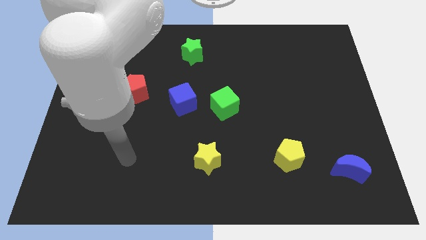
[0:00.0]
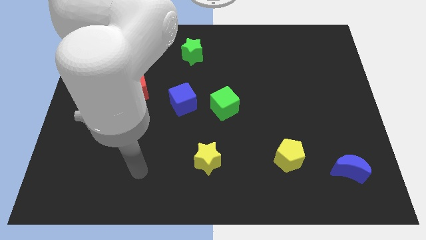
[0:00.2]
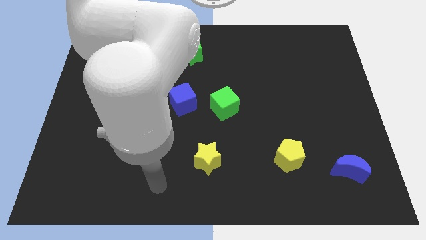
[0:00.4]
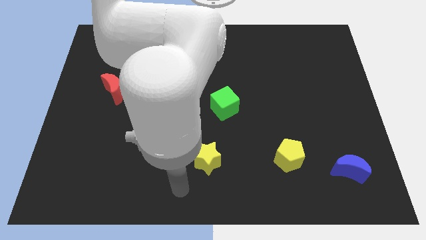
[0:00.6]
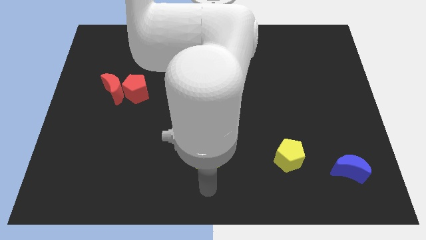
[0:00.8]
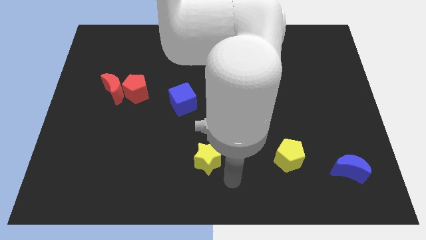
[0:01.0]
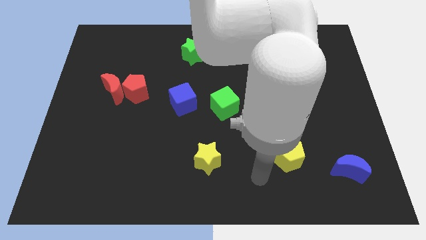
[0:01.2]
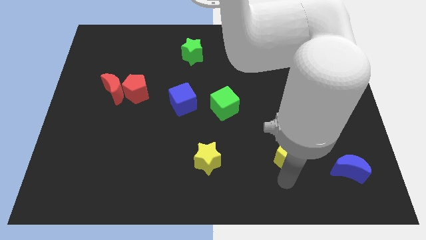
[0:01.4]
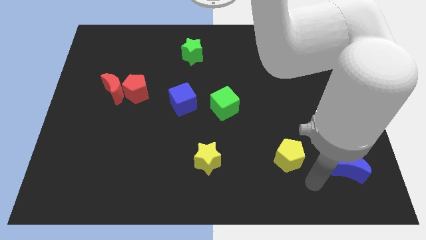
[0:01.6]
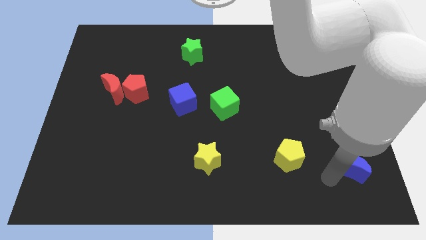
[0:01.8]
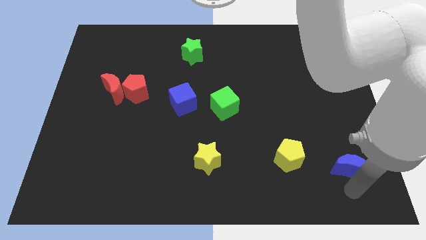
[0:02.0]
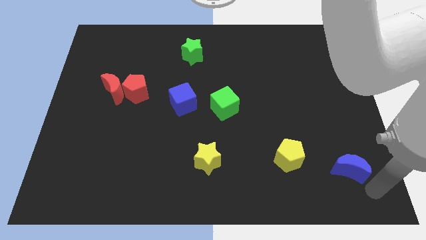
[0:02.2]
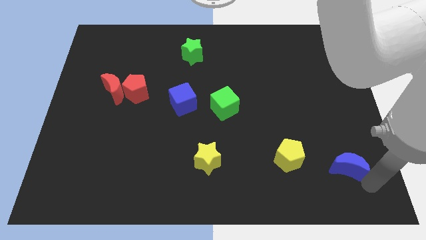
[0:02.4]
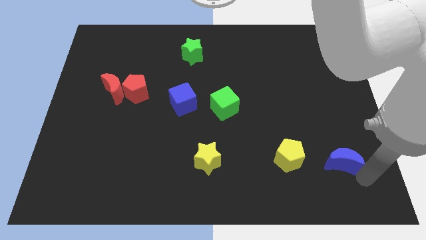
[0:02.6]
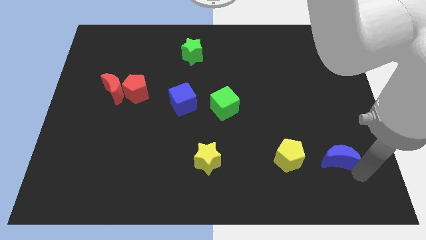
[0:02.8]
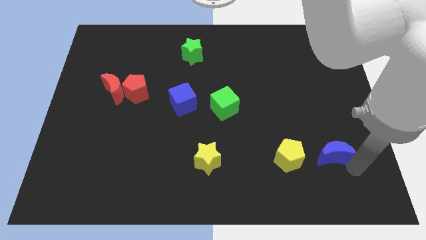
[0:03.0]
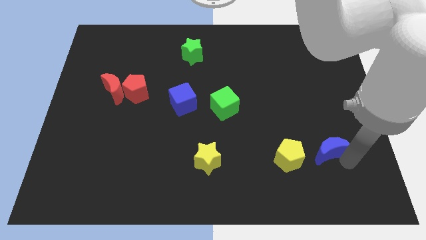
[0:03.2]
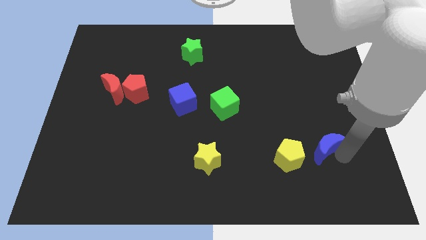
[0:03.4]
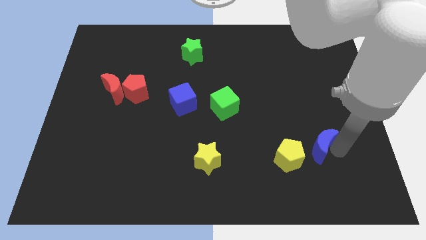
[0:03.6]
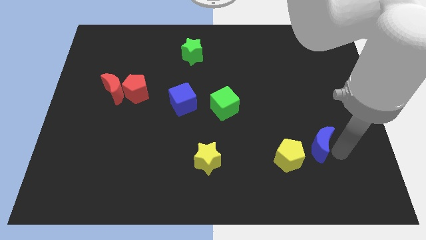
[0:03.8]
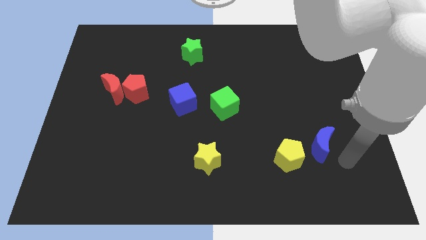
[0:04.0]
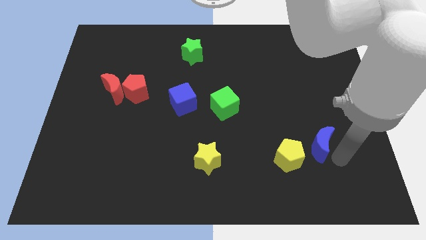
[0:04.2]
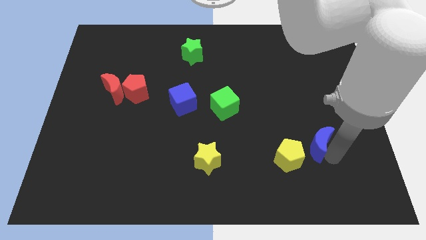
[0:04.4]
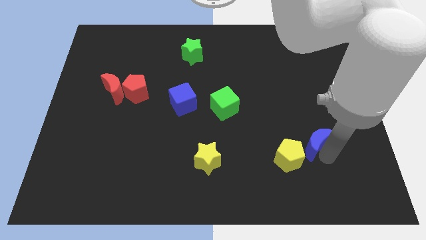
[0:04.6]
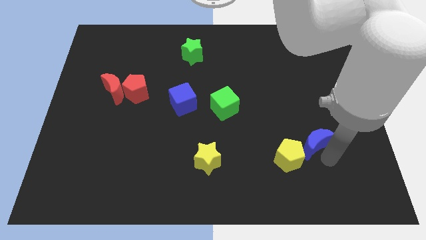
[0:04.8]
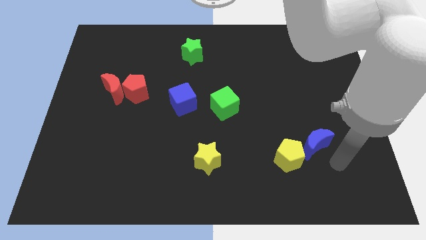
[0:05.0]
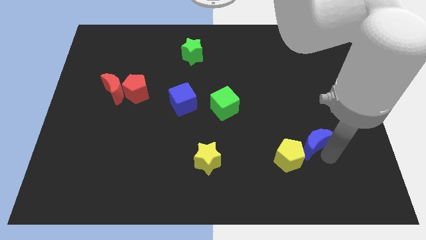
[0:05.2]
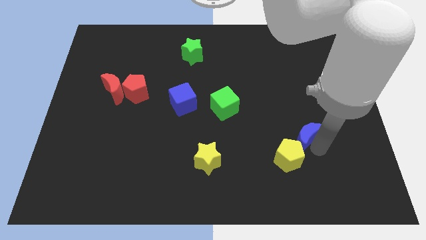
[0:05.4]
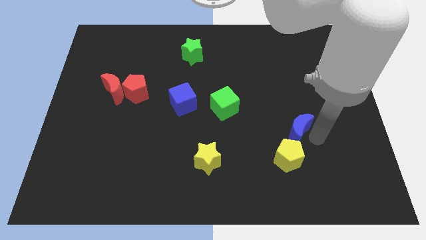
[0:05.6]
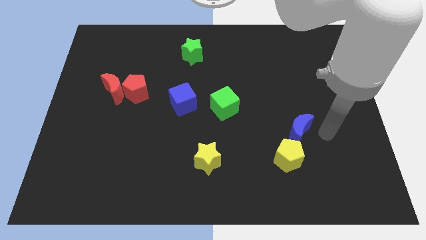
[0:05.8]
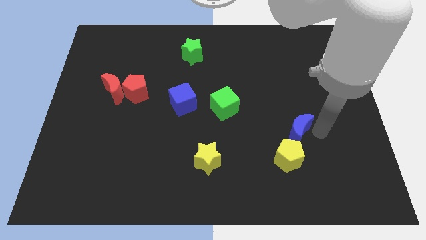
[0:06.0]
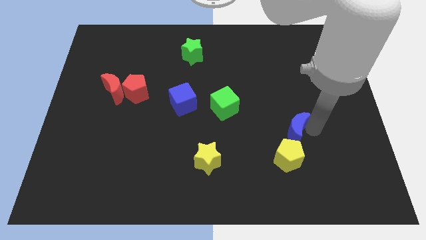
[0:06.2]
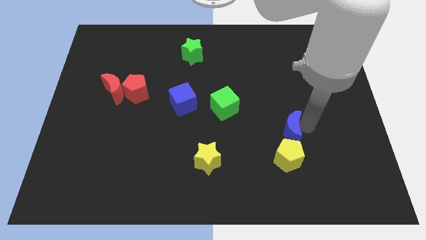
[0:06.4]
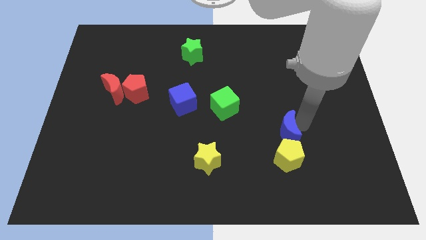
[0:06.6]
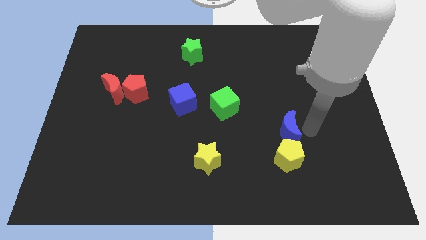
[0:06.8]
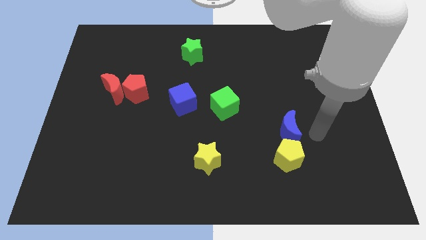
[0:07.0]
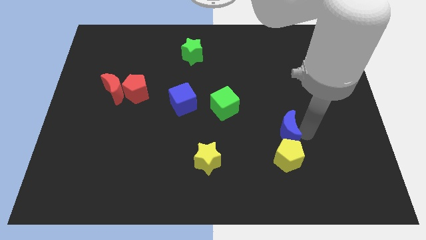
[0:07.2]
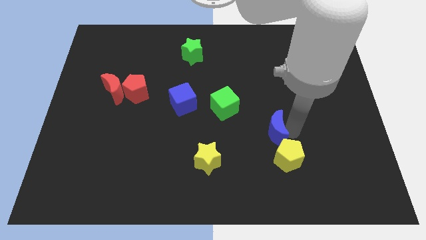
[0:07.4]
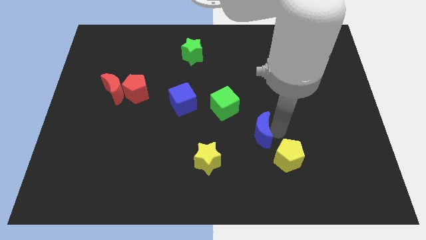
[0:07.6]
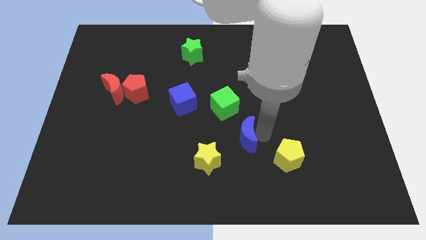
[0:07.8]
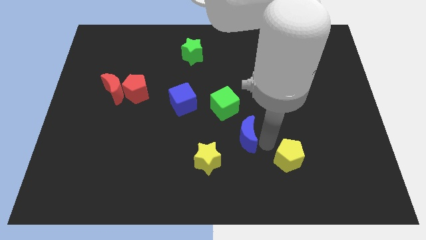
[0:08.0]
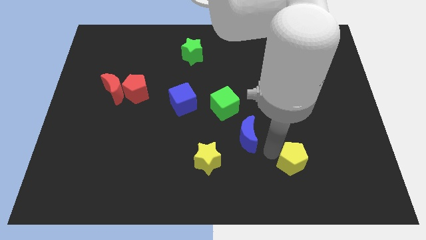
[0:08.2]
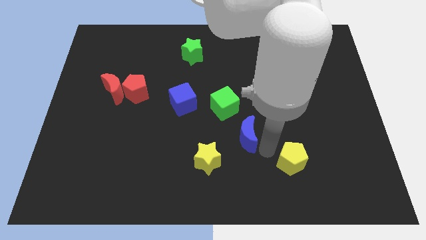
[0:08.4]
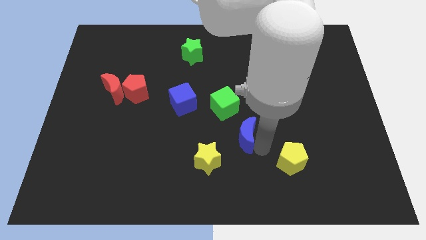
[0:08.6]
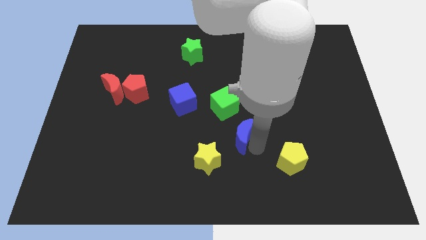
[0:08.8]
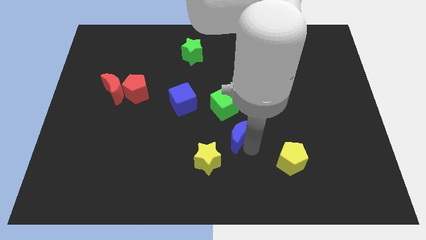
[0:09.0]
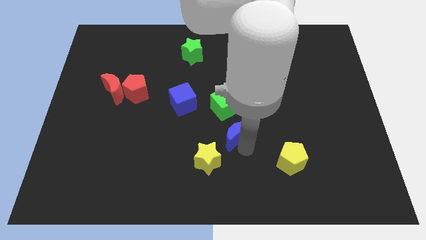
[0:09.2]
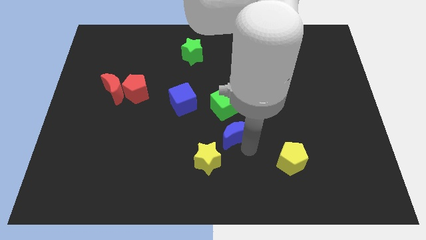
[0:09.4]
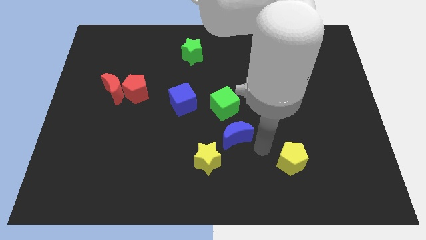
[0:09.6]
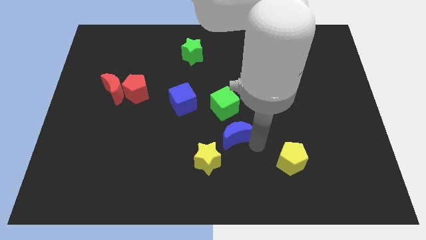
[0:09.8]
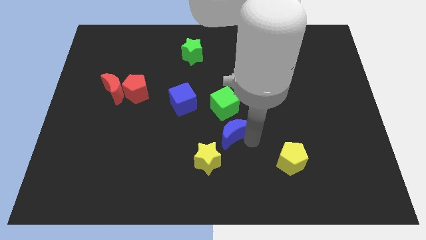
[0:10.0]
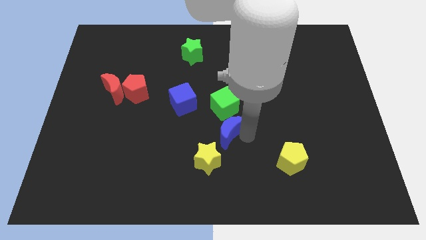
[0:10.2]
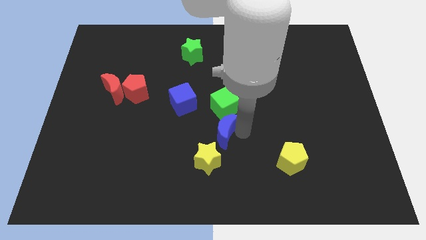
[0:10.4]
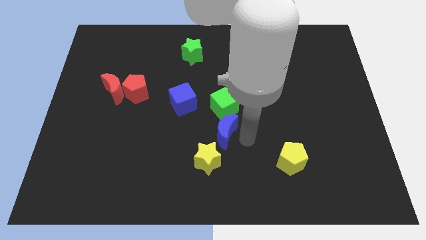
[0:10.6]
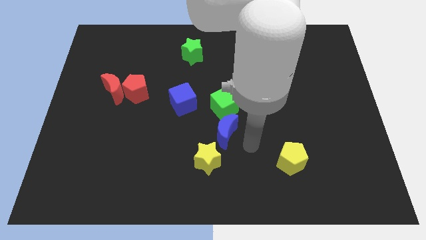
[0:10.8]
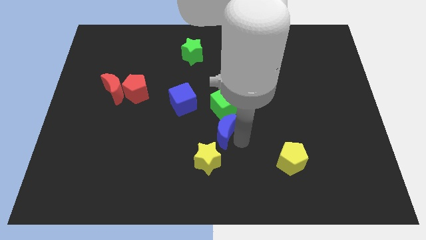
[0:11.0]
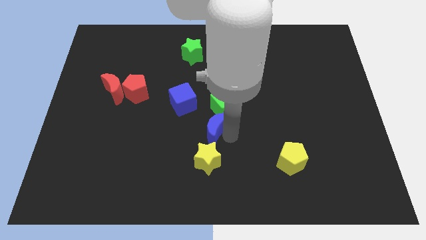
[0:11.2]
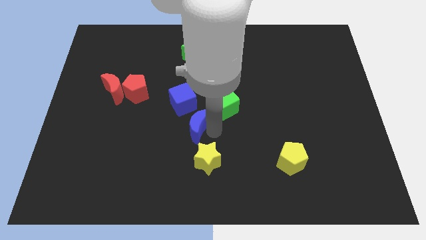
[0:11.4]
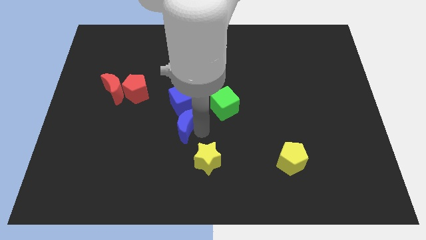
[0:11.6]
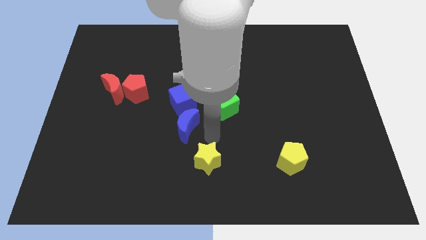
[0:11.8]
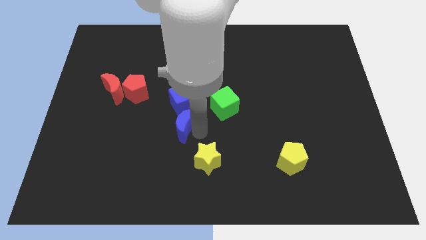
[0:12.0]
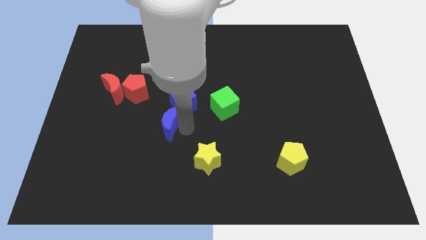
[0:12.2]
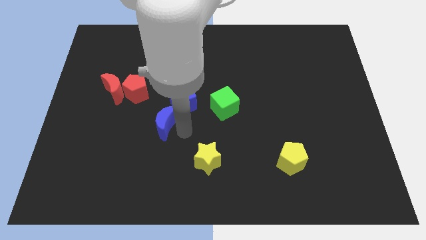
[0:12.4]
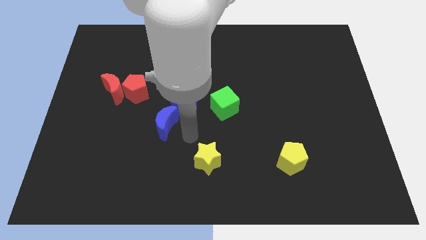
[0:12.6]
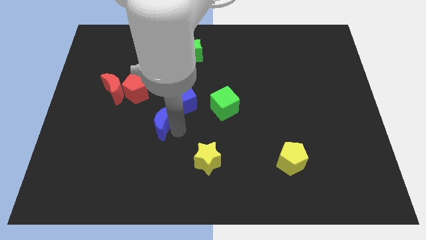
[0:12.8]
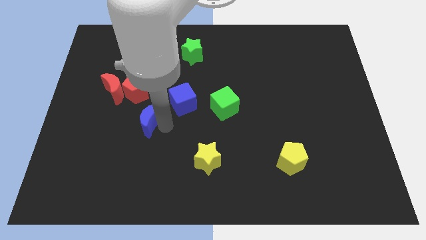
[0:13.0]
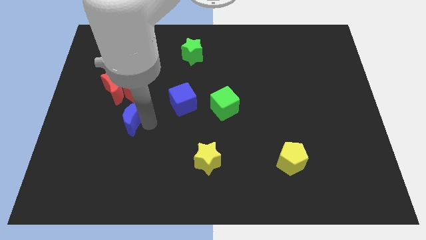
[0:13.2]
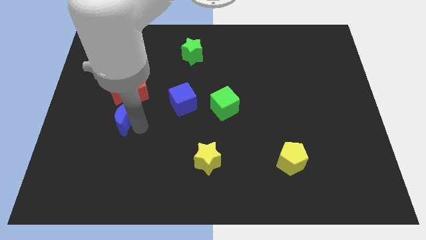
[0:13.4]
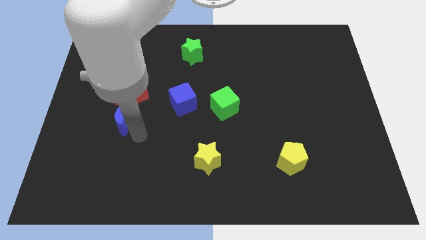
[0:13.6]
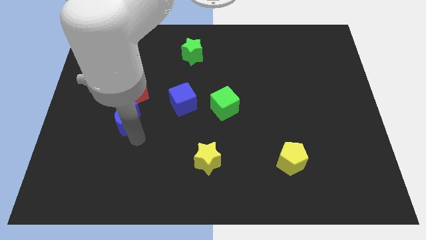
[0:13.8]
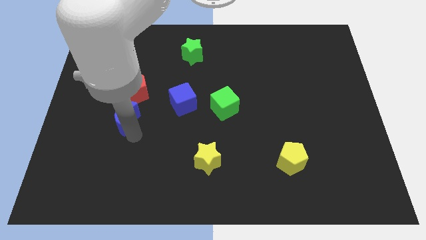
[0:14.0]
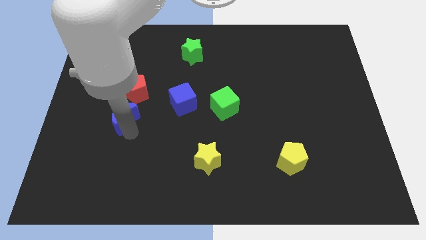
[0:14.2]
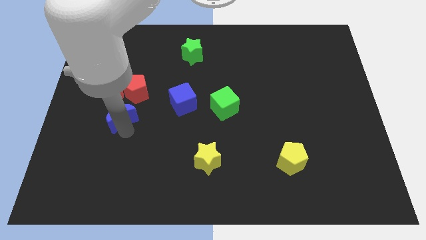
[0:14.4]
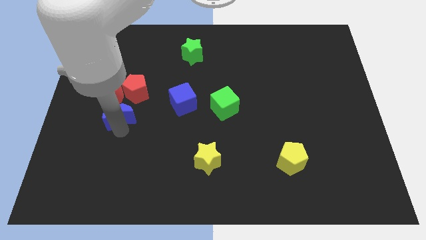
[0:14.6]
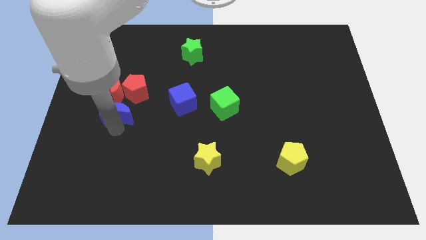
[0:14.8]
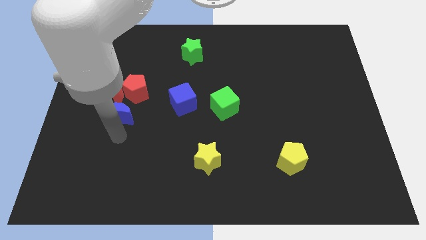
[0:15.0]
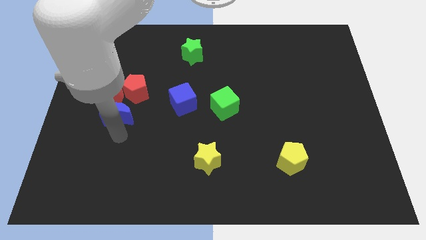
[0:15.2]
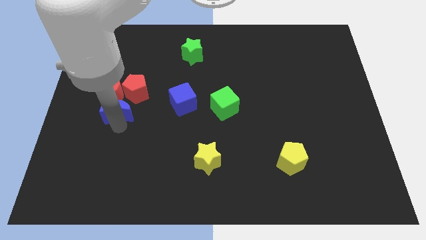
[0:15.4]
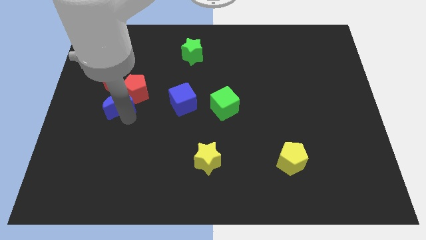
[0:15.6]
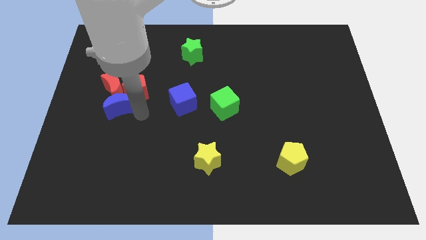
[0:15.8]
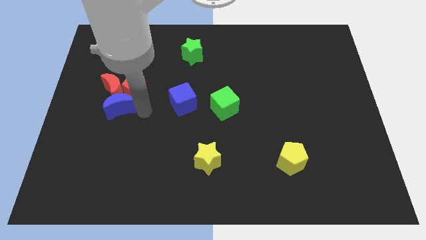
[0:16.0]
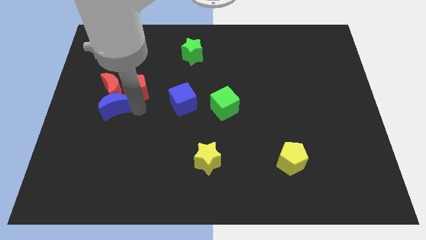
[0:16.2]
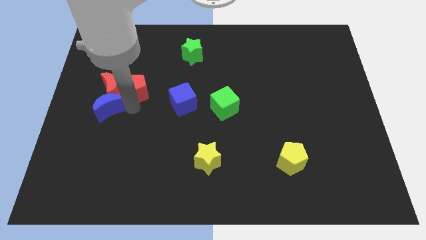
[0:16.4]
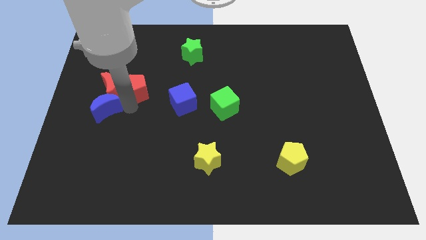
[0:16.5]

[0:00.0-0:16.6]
put the blue moon to the center left
